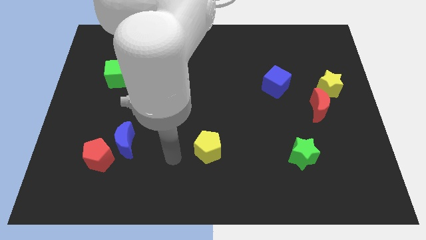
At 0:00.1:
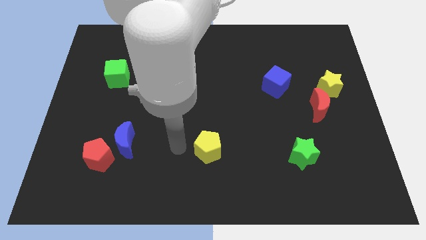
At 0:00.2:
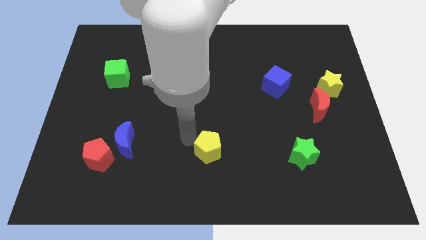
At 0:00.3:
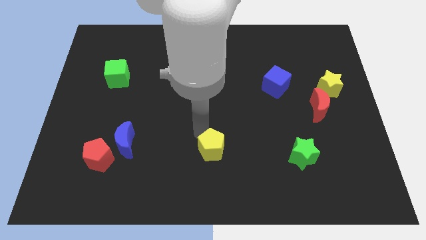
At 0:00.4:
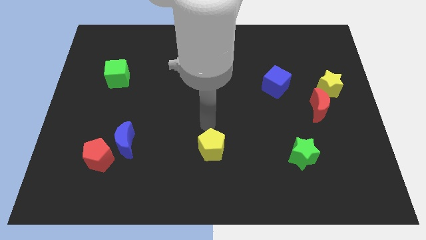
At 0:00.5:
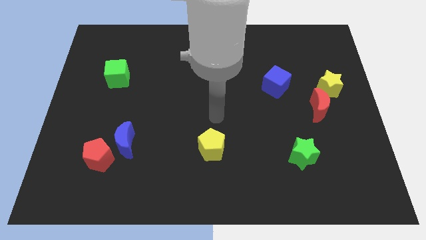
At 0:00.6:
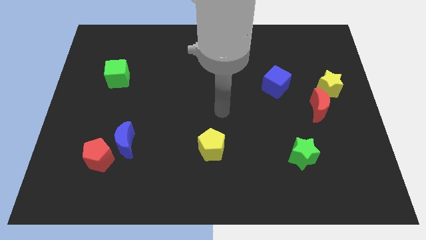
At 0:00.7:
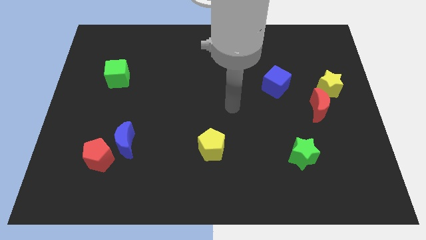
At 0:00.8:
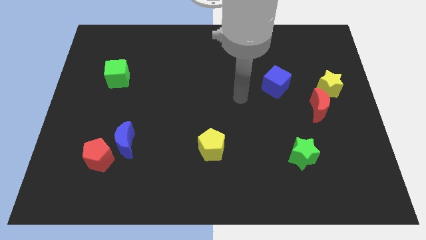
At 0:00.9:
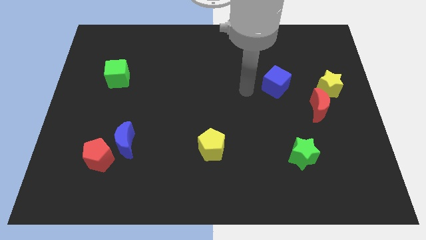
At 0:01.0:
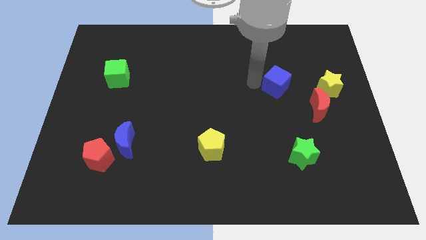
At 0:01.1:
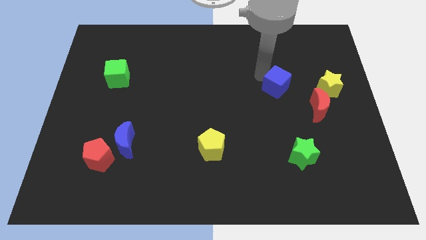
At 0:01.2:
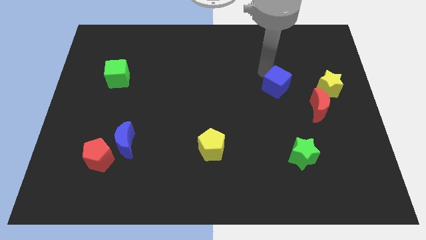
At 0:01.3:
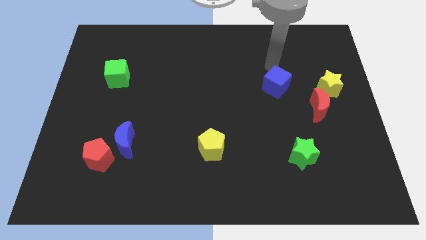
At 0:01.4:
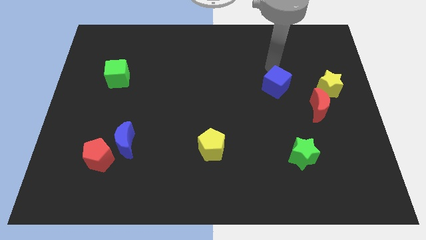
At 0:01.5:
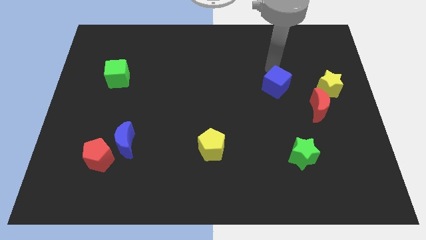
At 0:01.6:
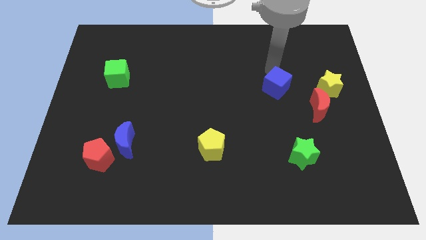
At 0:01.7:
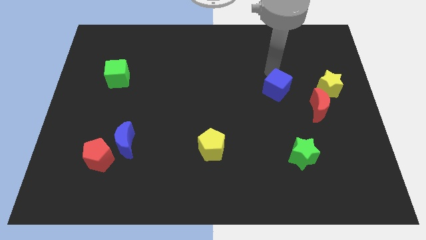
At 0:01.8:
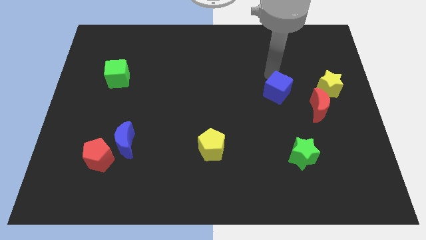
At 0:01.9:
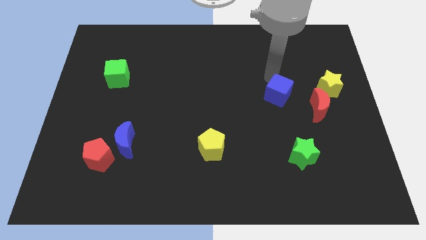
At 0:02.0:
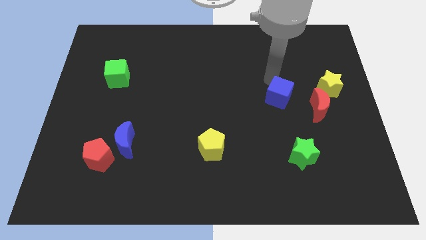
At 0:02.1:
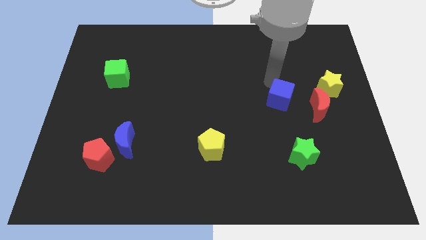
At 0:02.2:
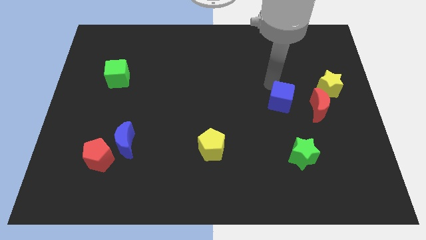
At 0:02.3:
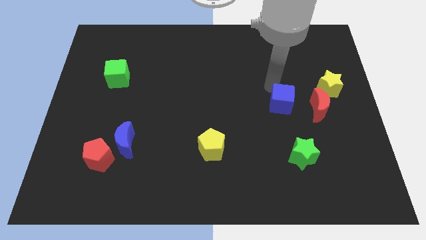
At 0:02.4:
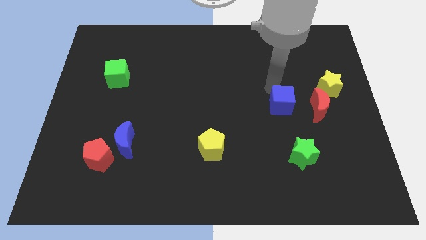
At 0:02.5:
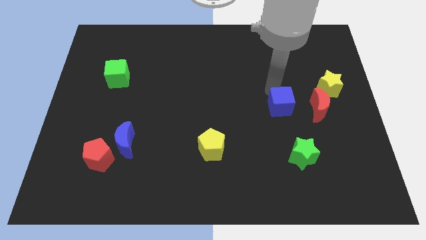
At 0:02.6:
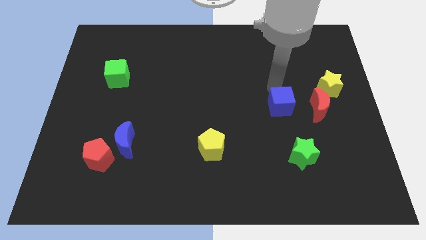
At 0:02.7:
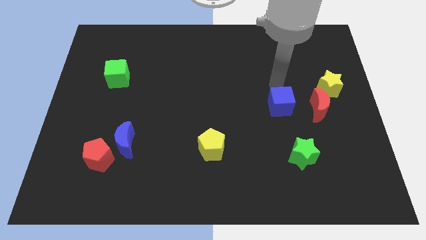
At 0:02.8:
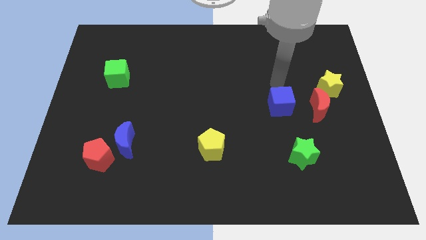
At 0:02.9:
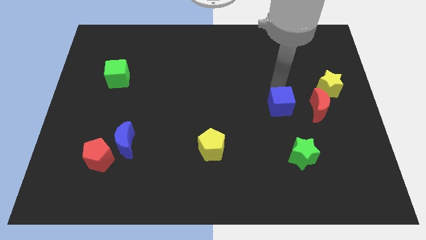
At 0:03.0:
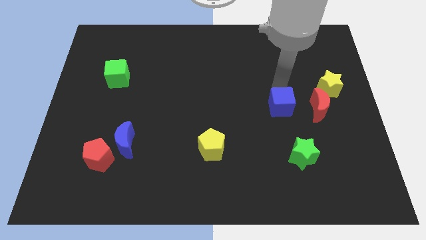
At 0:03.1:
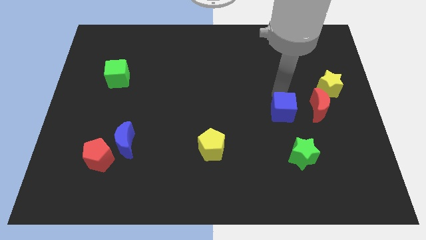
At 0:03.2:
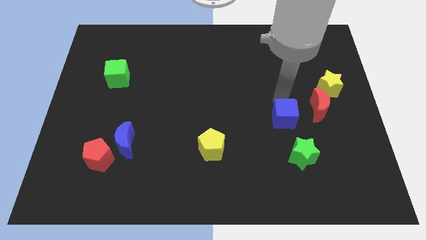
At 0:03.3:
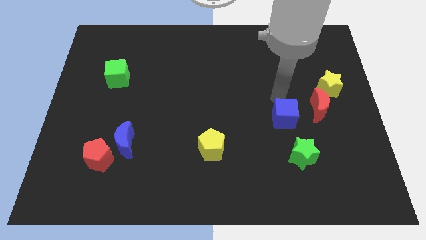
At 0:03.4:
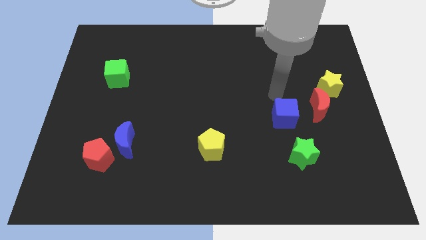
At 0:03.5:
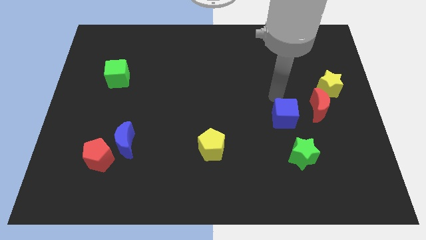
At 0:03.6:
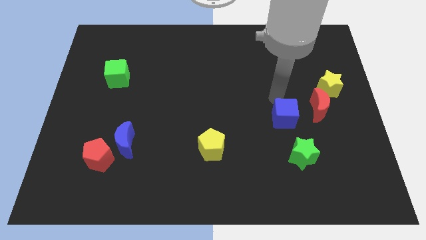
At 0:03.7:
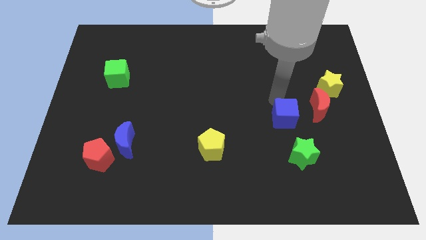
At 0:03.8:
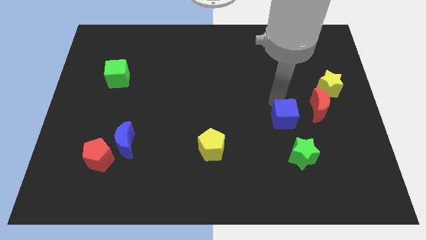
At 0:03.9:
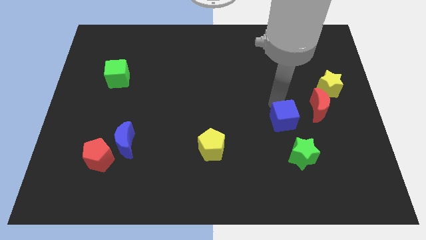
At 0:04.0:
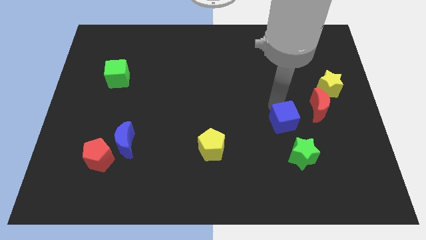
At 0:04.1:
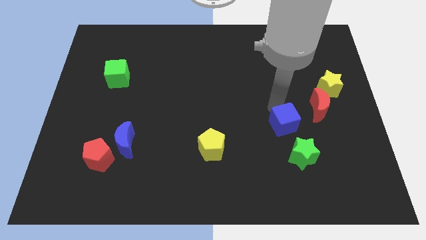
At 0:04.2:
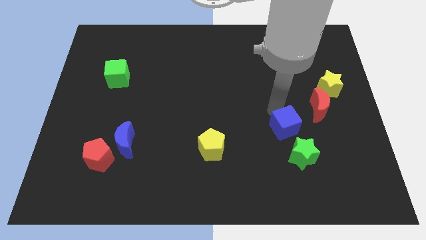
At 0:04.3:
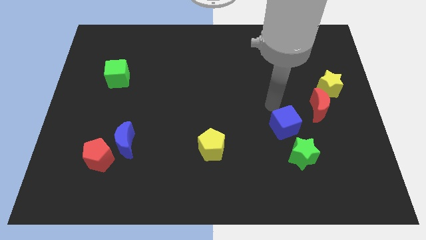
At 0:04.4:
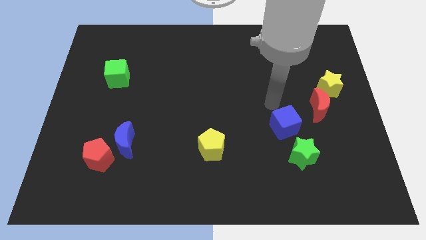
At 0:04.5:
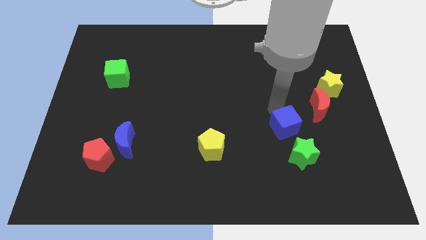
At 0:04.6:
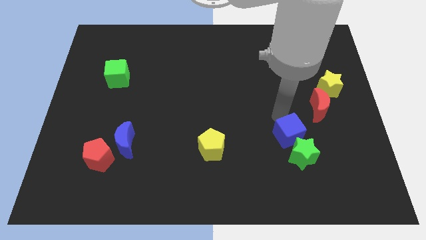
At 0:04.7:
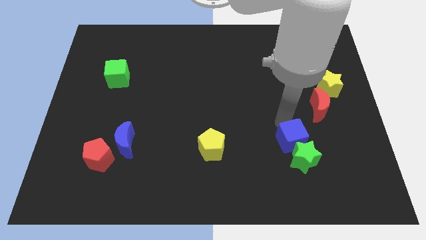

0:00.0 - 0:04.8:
slide the blue cube close to the green star

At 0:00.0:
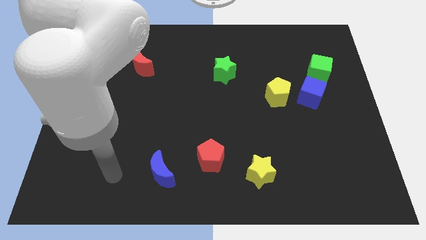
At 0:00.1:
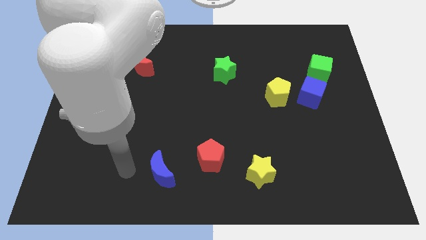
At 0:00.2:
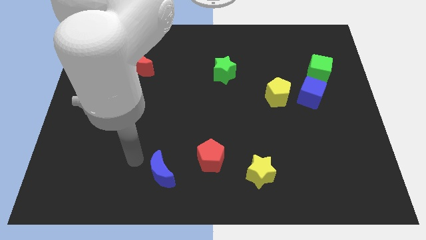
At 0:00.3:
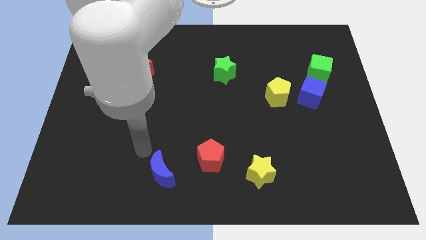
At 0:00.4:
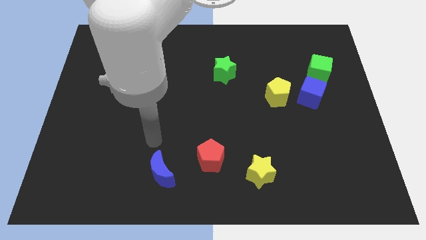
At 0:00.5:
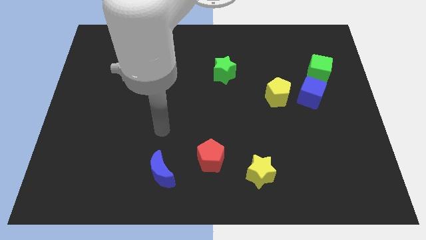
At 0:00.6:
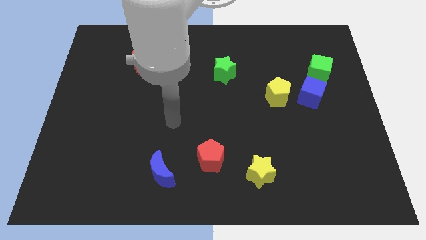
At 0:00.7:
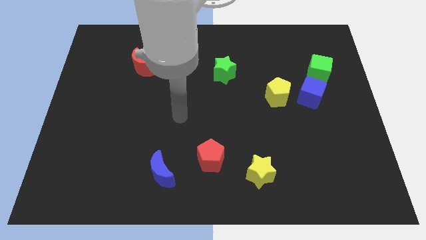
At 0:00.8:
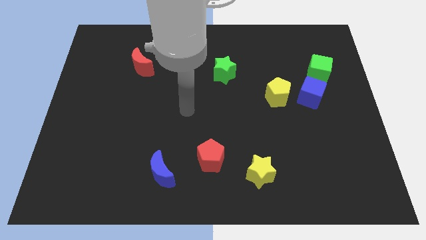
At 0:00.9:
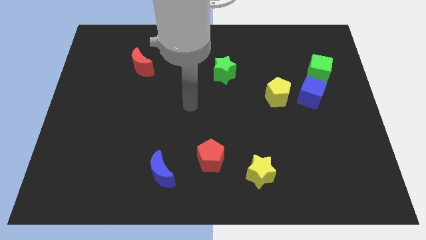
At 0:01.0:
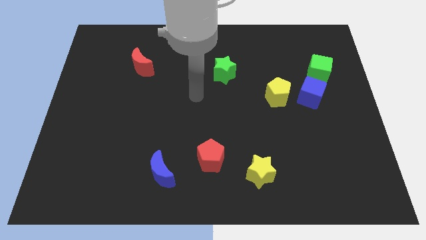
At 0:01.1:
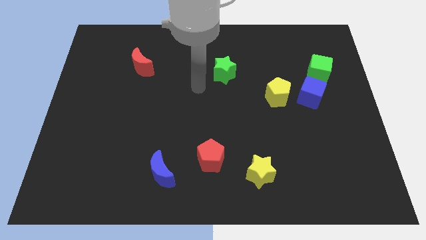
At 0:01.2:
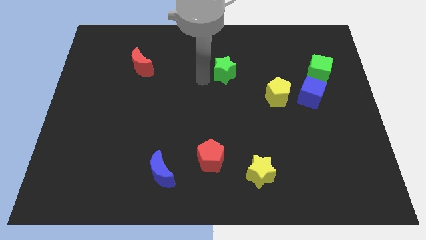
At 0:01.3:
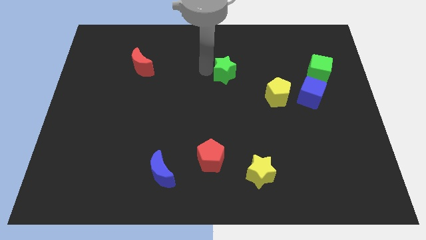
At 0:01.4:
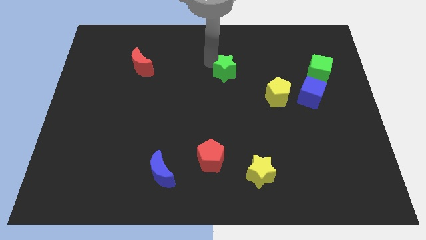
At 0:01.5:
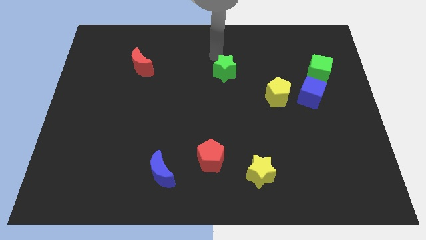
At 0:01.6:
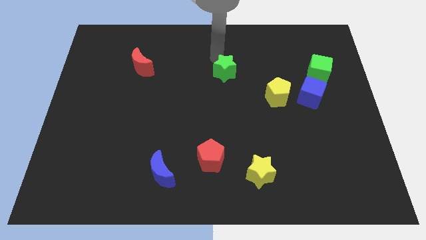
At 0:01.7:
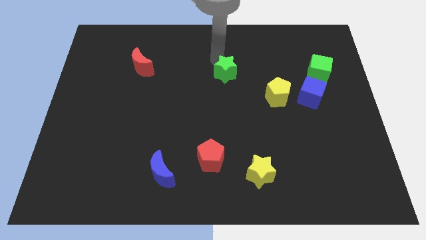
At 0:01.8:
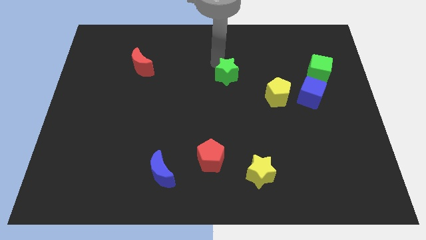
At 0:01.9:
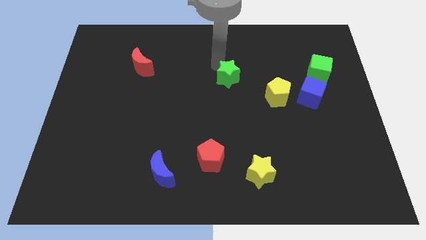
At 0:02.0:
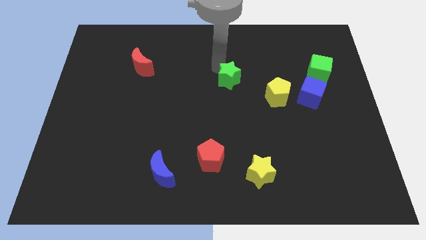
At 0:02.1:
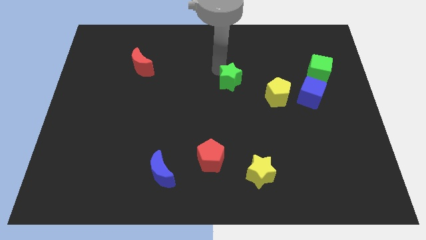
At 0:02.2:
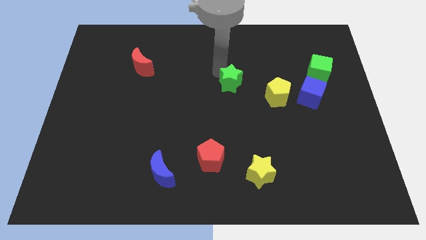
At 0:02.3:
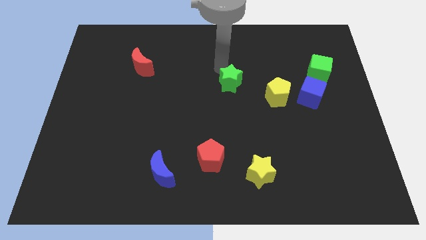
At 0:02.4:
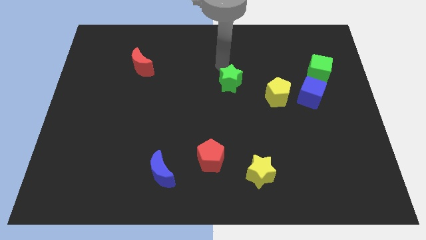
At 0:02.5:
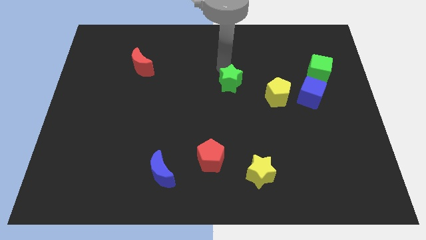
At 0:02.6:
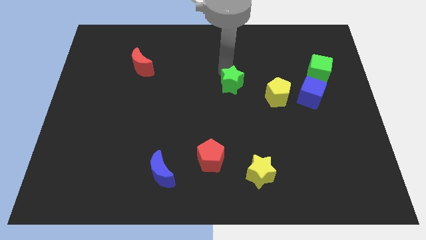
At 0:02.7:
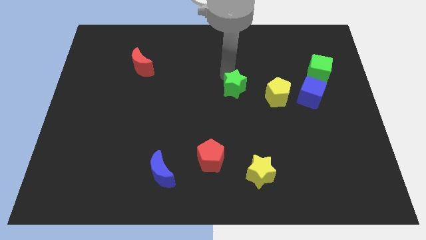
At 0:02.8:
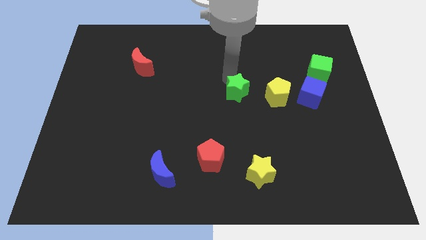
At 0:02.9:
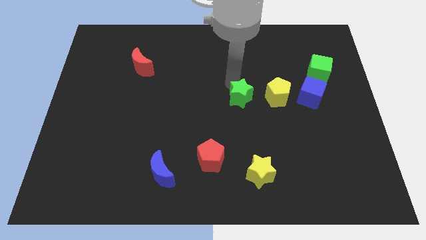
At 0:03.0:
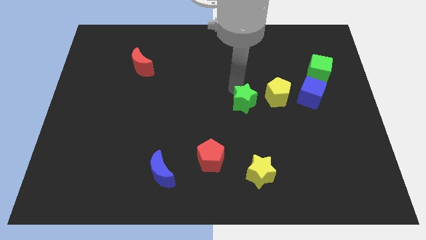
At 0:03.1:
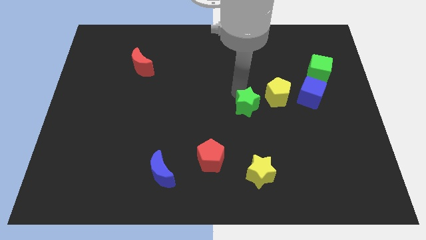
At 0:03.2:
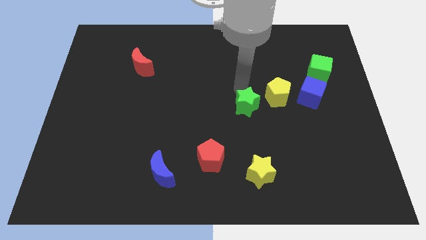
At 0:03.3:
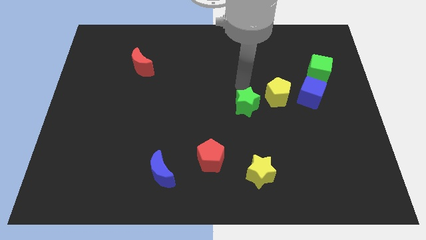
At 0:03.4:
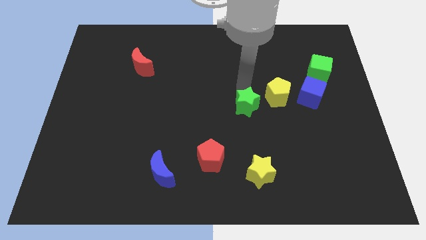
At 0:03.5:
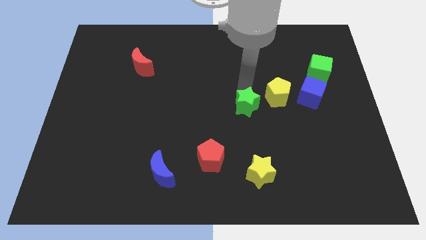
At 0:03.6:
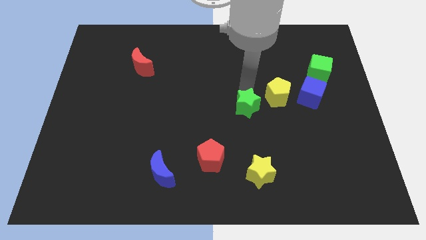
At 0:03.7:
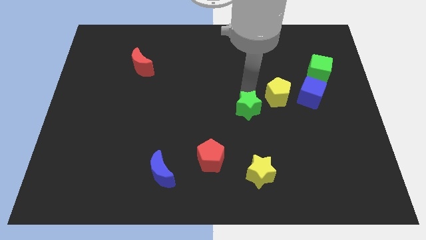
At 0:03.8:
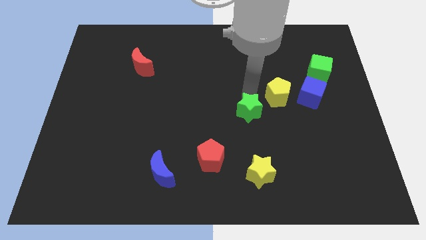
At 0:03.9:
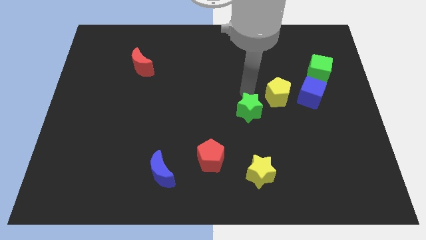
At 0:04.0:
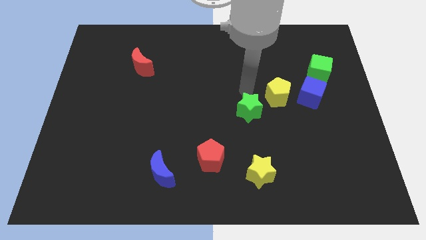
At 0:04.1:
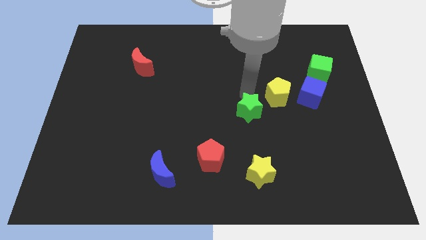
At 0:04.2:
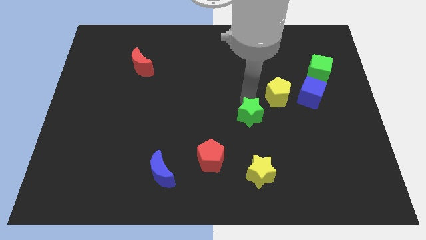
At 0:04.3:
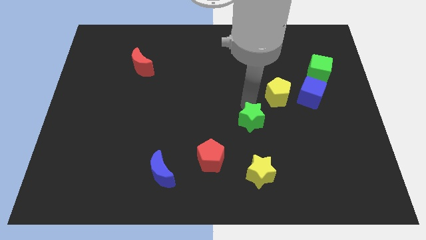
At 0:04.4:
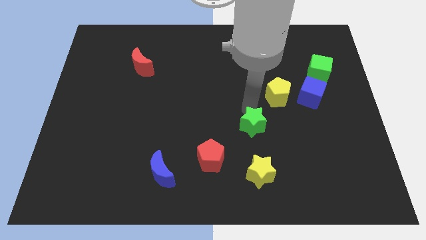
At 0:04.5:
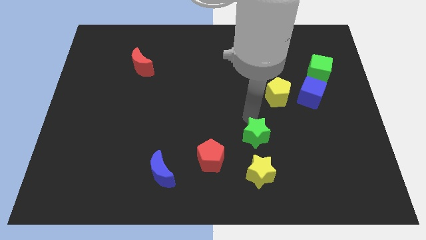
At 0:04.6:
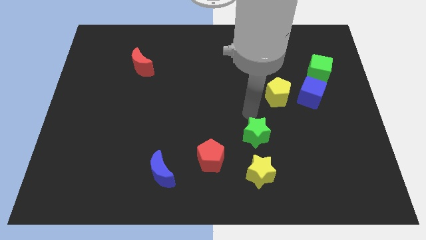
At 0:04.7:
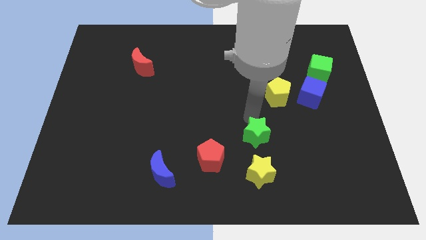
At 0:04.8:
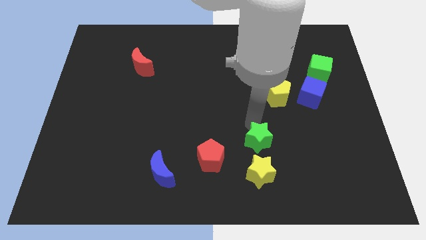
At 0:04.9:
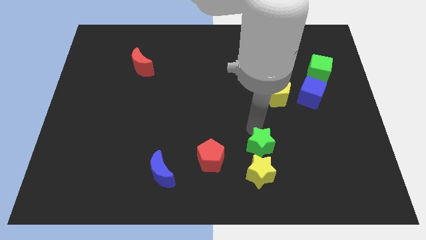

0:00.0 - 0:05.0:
push the green star next to the yellow star
